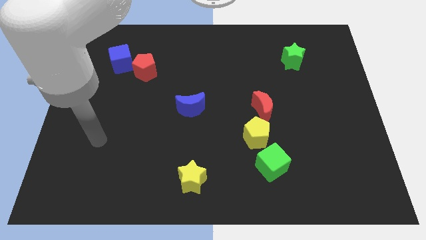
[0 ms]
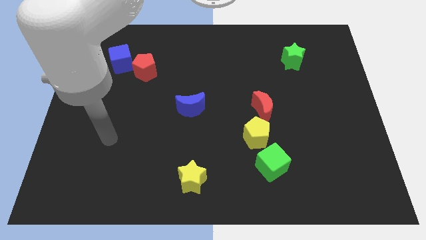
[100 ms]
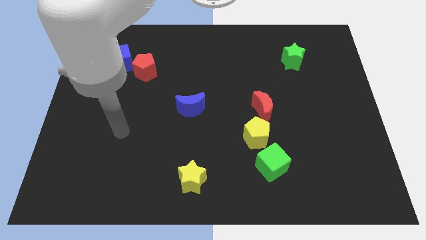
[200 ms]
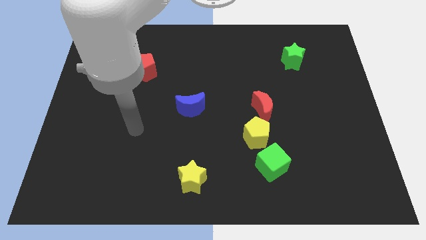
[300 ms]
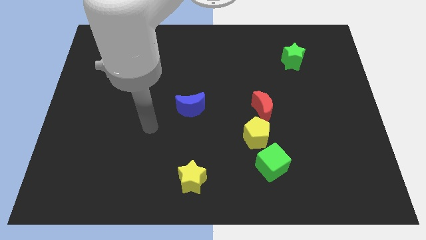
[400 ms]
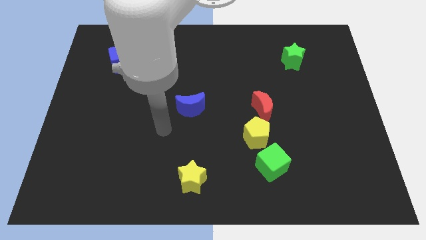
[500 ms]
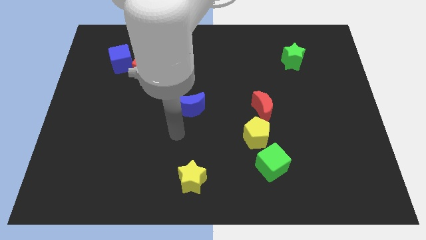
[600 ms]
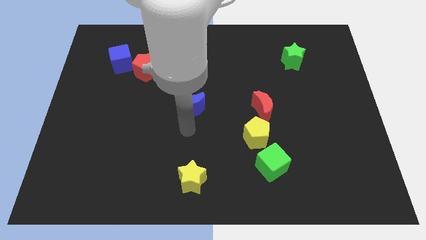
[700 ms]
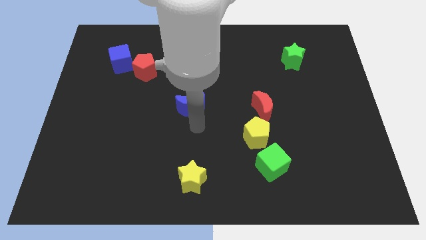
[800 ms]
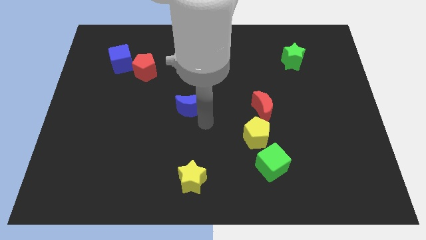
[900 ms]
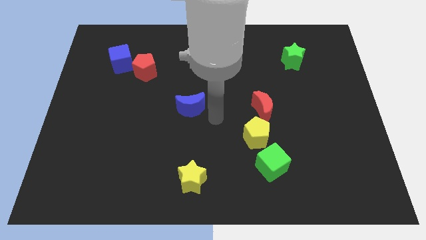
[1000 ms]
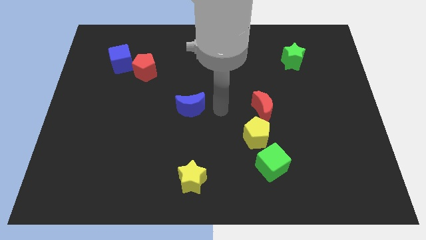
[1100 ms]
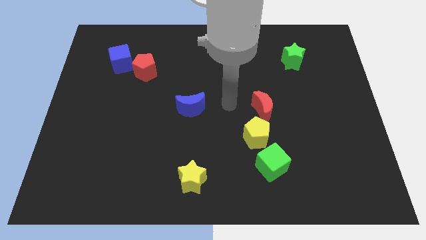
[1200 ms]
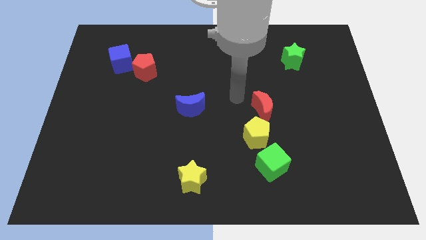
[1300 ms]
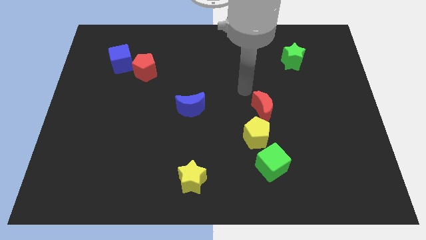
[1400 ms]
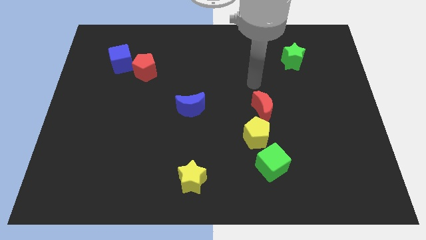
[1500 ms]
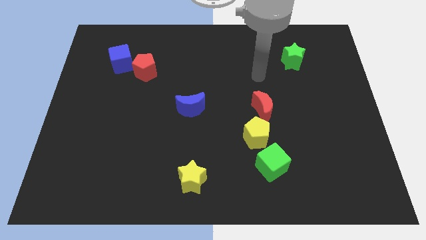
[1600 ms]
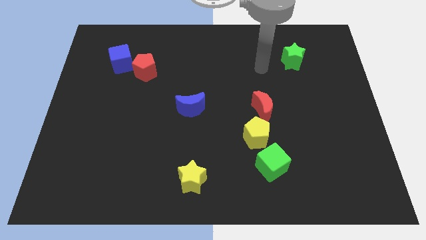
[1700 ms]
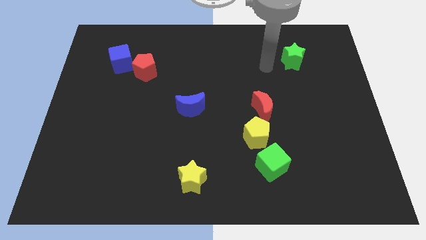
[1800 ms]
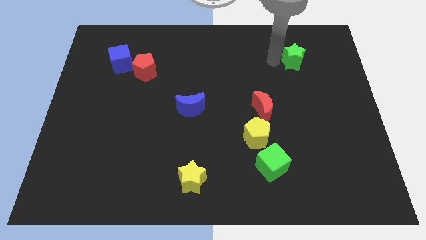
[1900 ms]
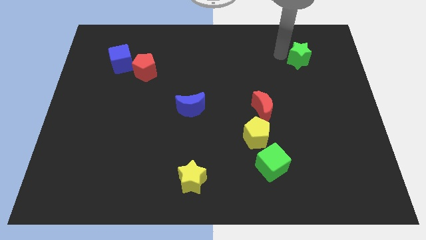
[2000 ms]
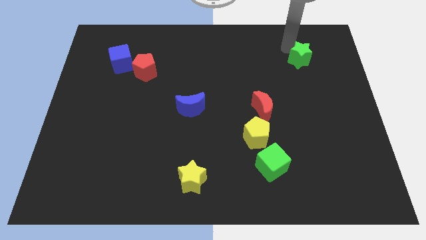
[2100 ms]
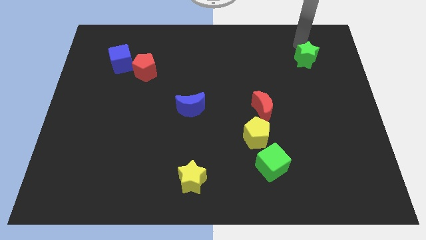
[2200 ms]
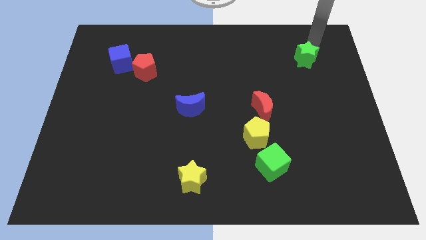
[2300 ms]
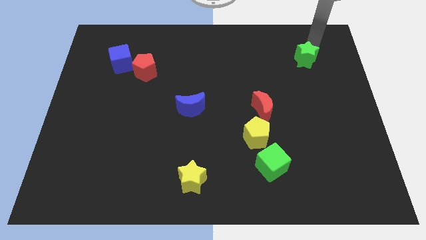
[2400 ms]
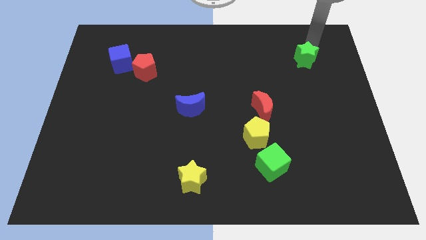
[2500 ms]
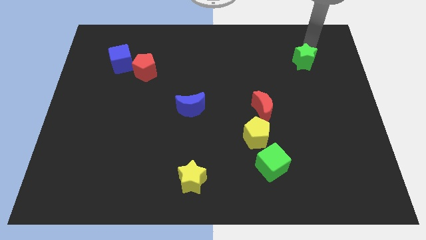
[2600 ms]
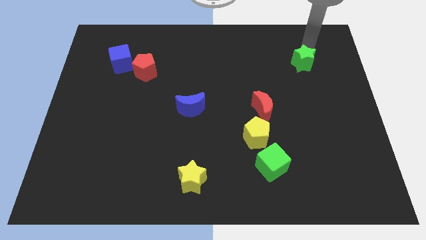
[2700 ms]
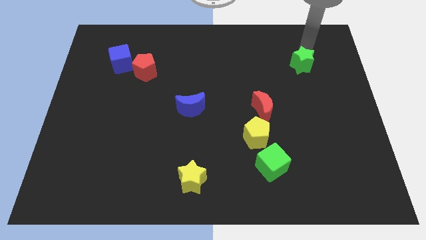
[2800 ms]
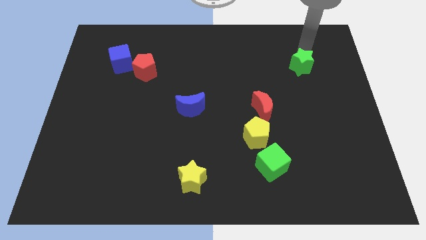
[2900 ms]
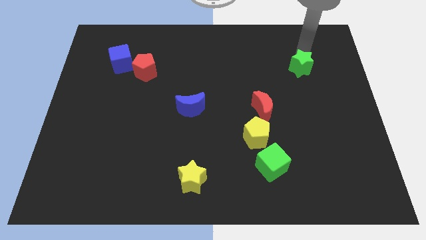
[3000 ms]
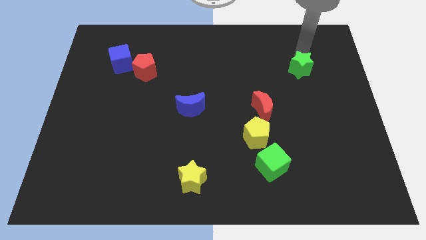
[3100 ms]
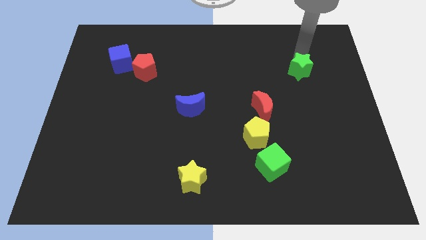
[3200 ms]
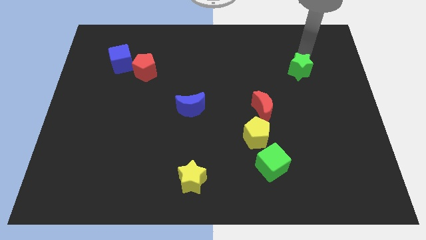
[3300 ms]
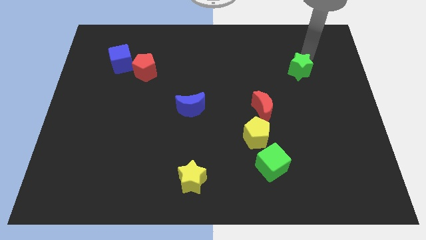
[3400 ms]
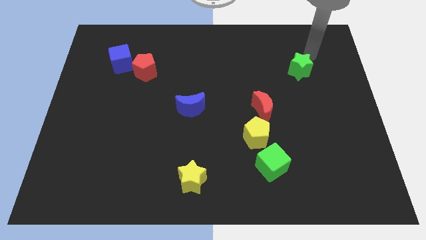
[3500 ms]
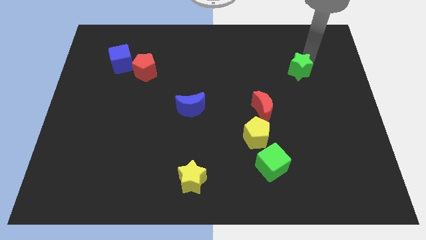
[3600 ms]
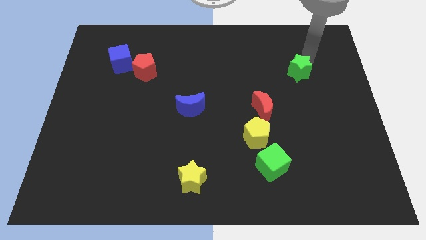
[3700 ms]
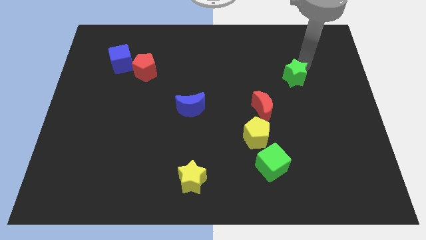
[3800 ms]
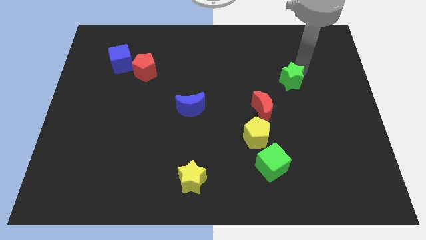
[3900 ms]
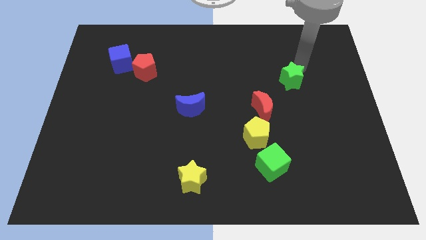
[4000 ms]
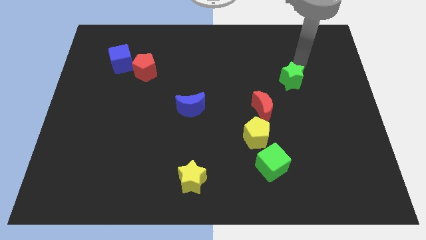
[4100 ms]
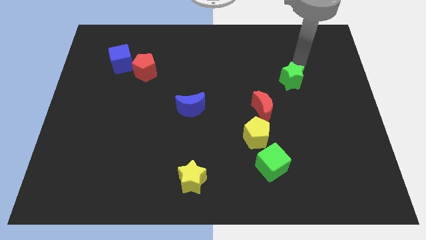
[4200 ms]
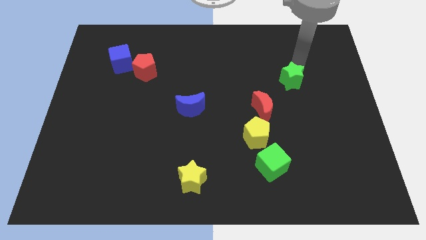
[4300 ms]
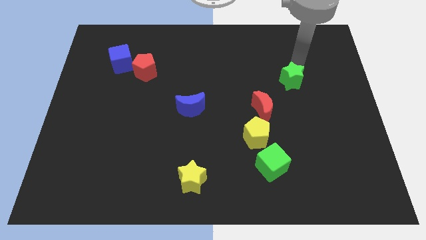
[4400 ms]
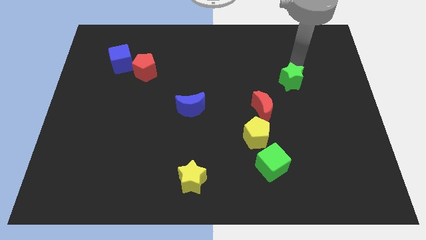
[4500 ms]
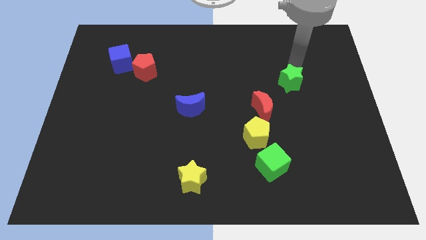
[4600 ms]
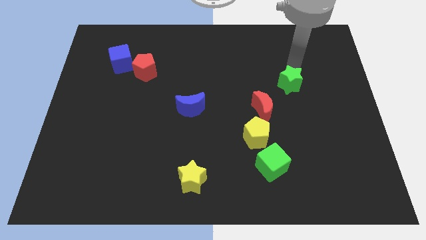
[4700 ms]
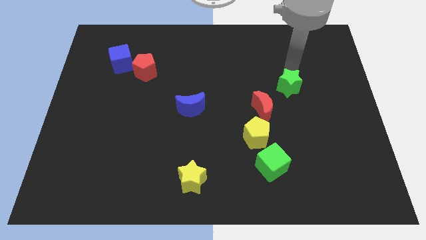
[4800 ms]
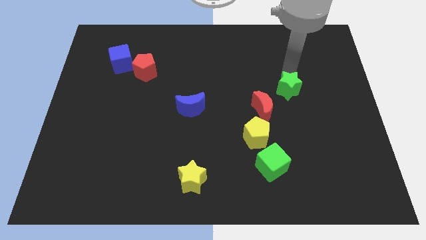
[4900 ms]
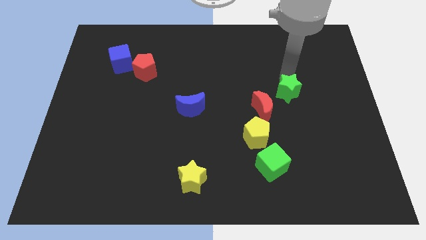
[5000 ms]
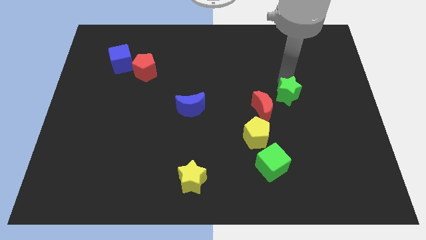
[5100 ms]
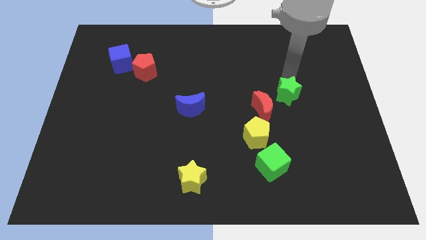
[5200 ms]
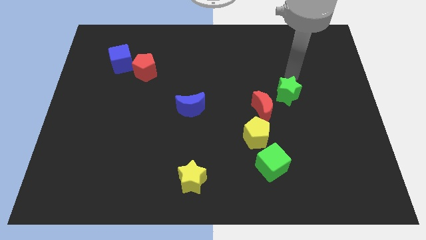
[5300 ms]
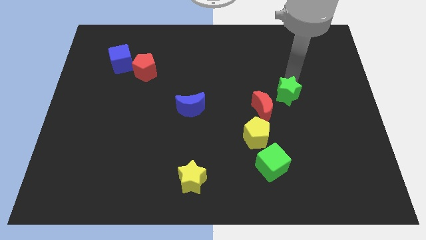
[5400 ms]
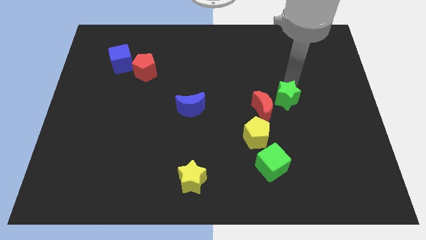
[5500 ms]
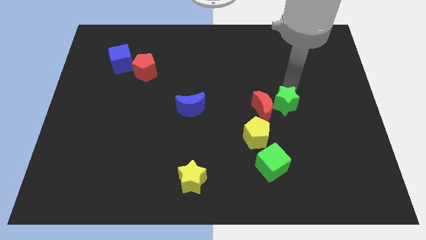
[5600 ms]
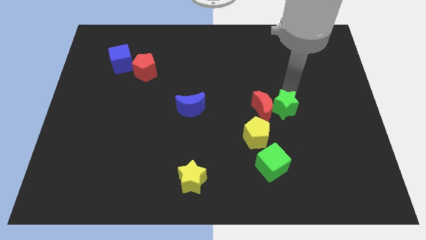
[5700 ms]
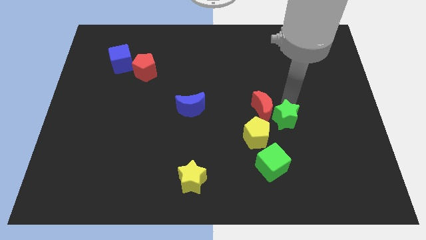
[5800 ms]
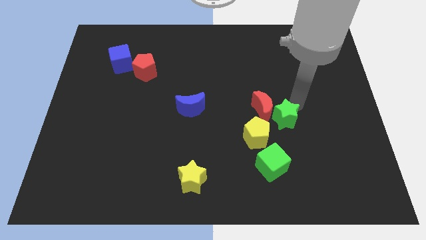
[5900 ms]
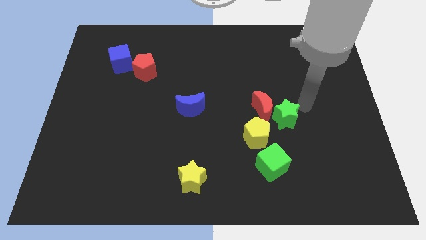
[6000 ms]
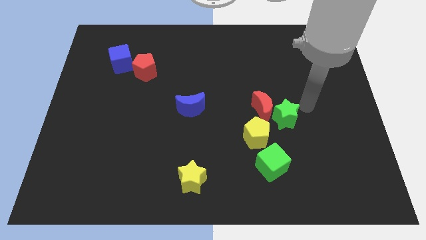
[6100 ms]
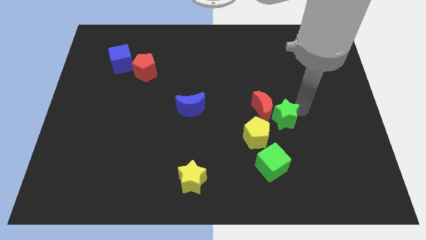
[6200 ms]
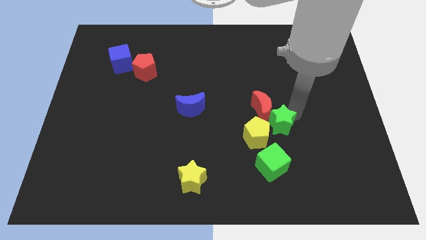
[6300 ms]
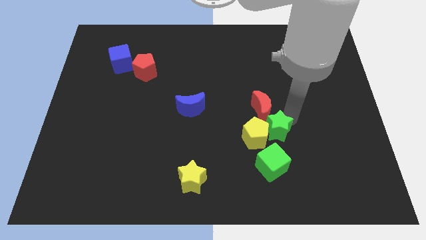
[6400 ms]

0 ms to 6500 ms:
push the green star close to the yellow pentagon

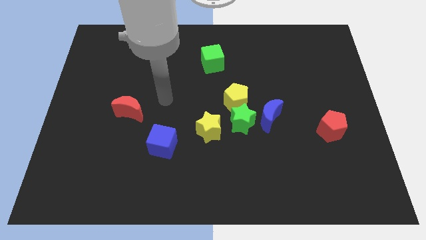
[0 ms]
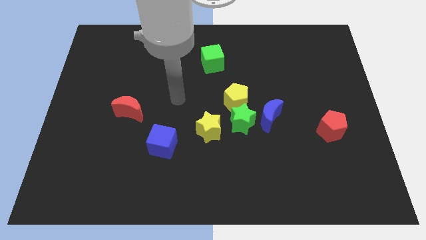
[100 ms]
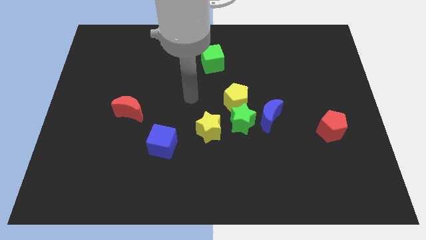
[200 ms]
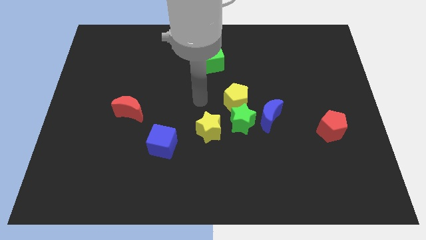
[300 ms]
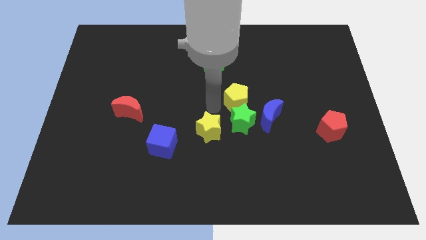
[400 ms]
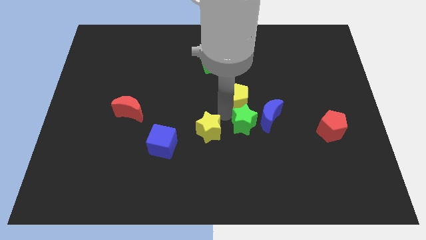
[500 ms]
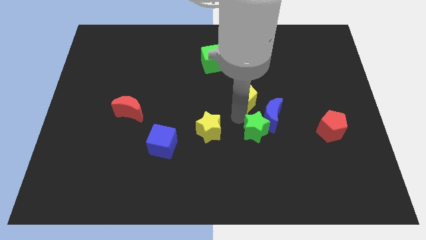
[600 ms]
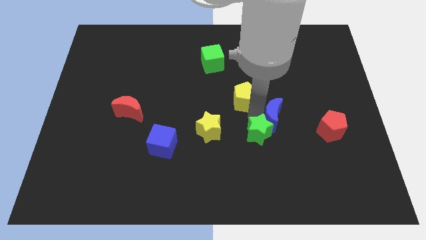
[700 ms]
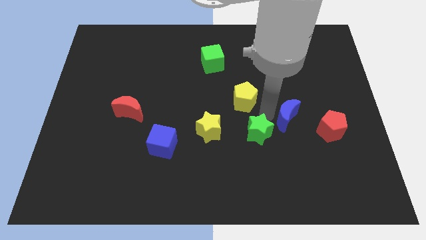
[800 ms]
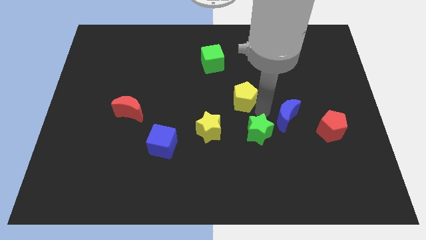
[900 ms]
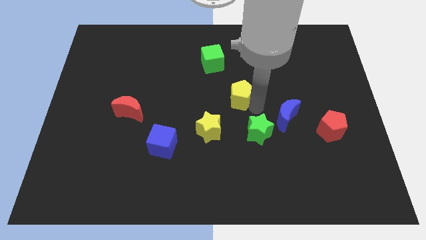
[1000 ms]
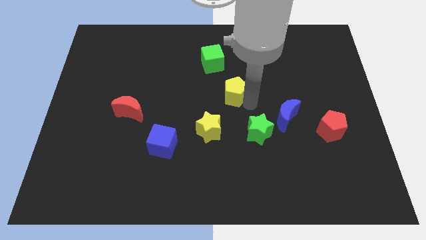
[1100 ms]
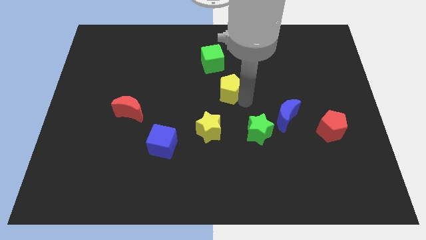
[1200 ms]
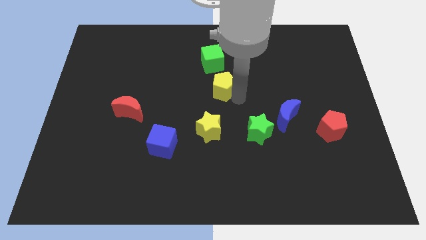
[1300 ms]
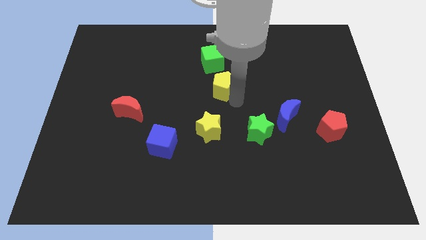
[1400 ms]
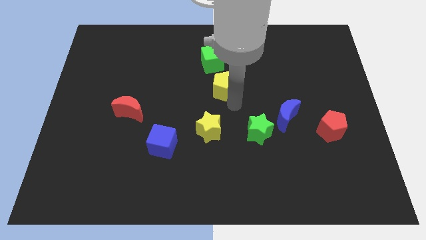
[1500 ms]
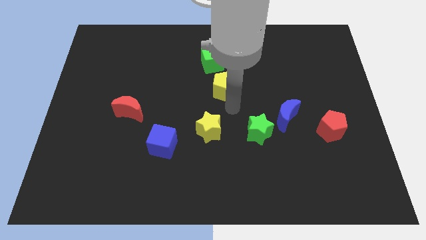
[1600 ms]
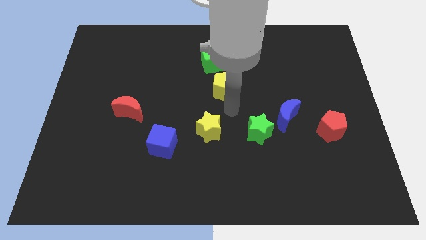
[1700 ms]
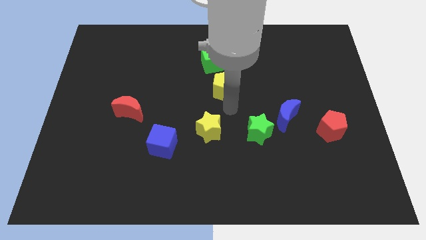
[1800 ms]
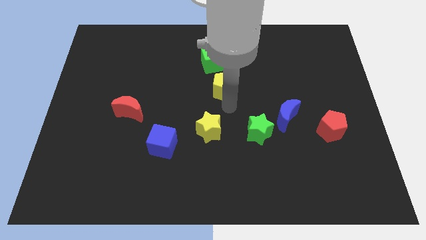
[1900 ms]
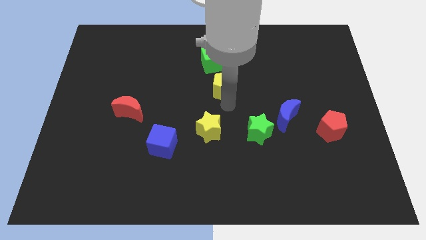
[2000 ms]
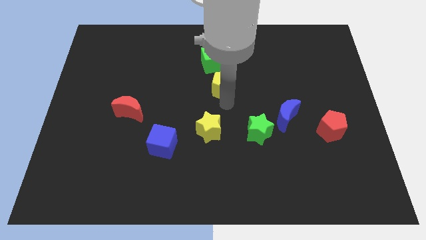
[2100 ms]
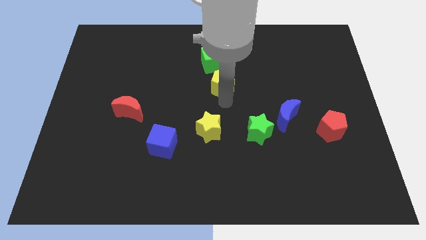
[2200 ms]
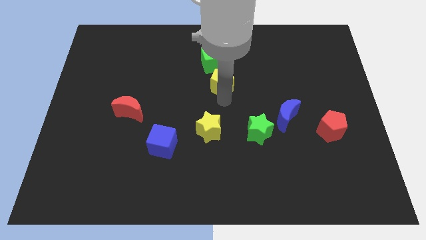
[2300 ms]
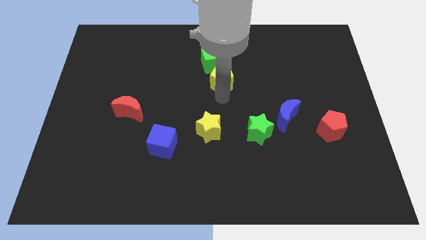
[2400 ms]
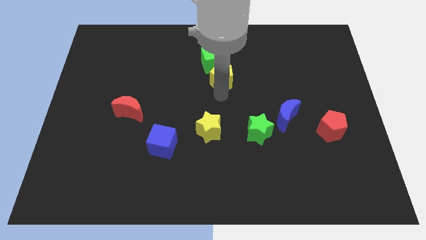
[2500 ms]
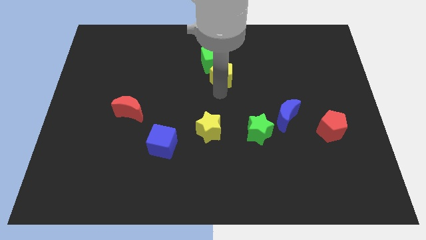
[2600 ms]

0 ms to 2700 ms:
slide the yellow pentagon towards the green cube
